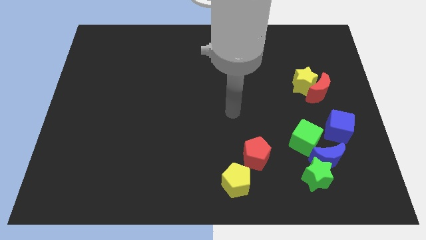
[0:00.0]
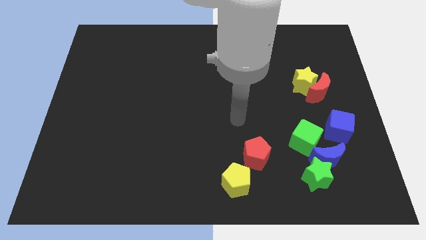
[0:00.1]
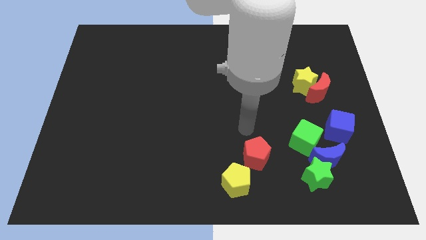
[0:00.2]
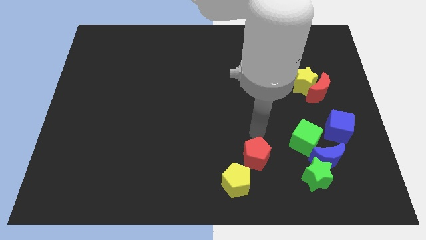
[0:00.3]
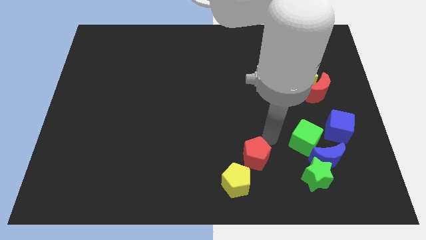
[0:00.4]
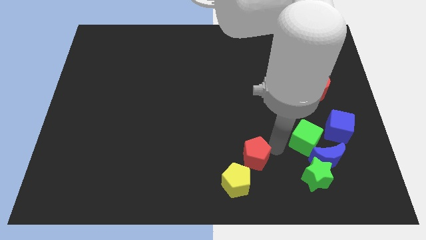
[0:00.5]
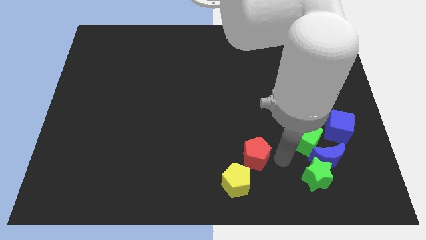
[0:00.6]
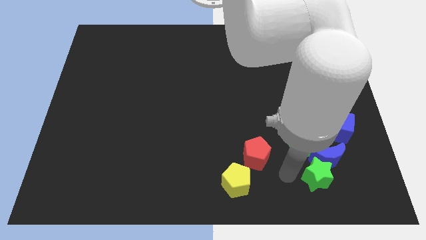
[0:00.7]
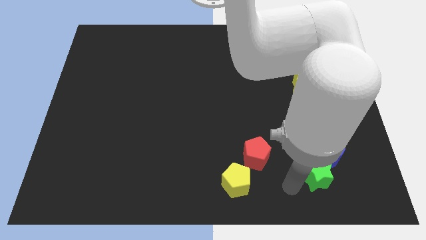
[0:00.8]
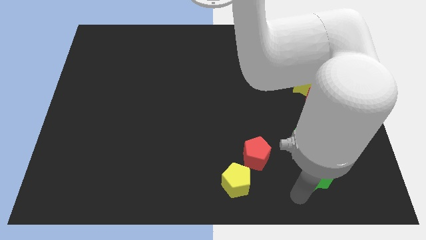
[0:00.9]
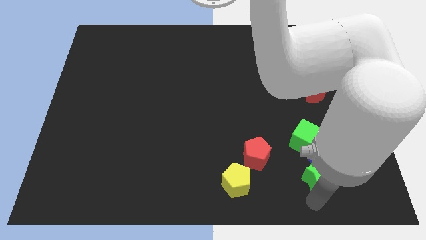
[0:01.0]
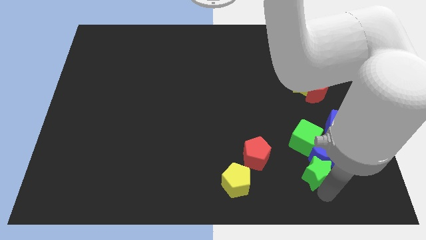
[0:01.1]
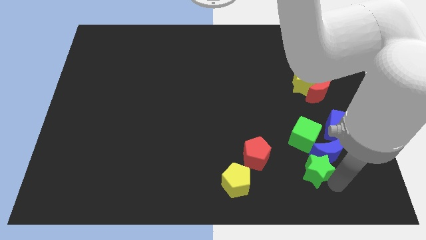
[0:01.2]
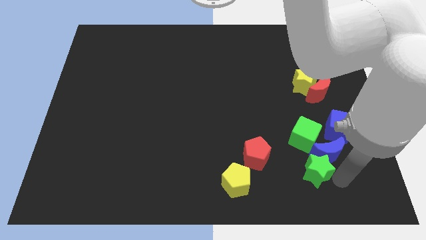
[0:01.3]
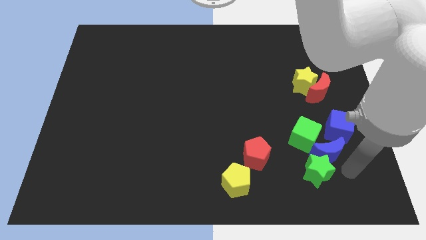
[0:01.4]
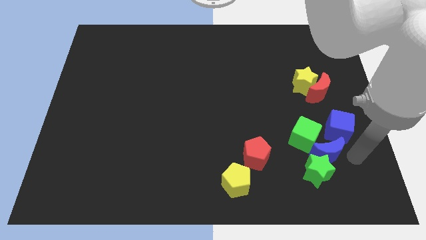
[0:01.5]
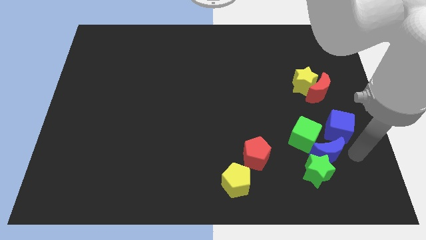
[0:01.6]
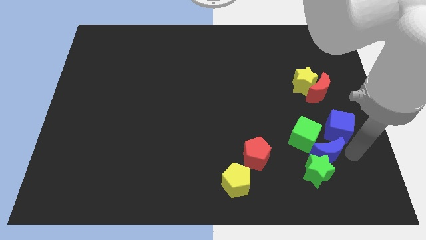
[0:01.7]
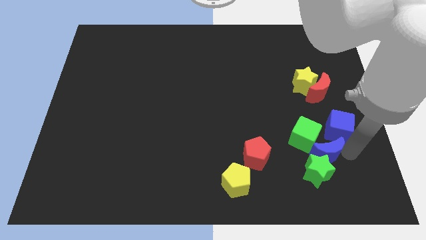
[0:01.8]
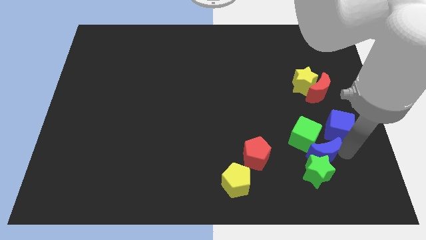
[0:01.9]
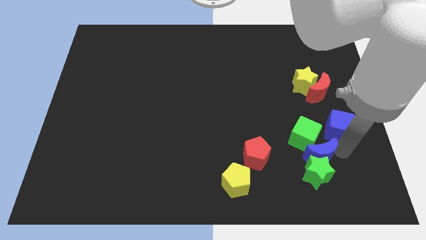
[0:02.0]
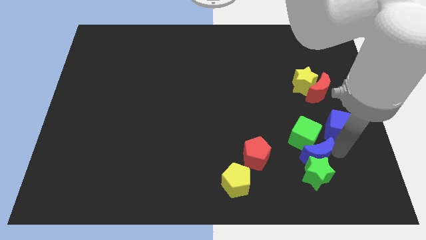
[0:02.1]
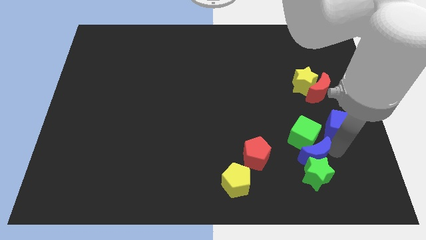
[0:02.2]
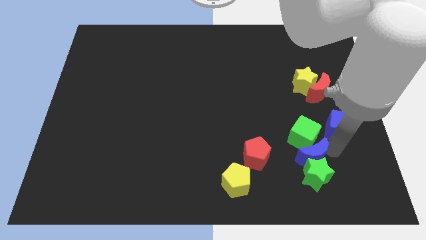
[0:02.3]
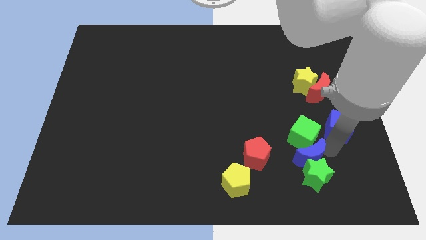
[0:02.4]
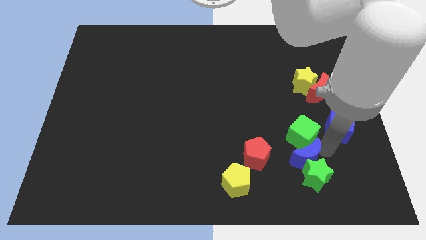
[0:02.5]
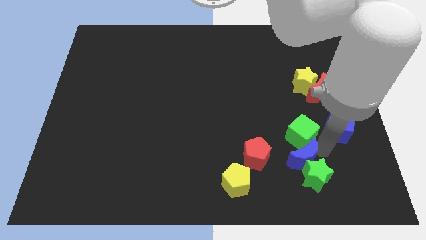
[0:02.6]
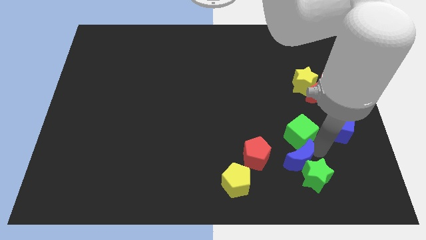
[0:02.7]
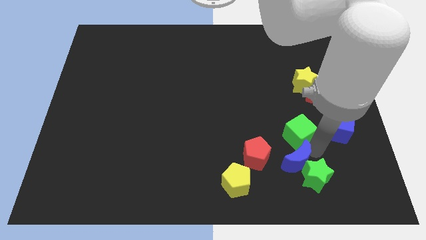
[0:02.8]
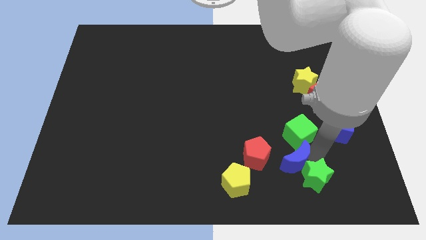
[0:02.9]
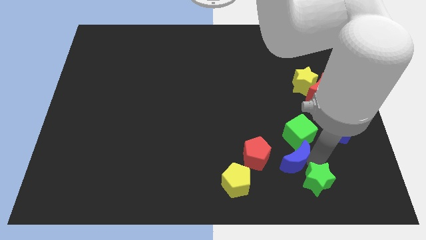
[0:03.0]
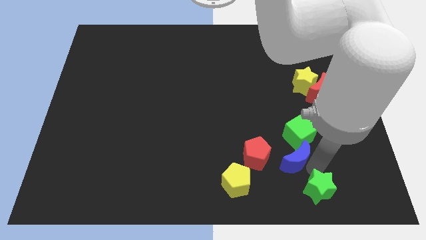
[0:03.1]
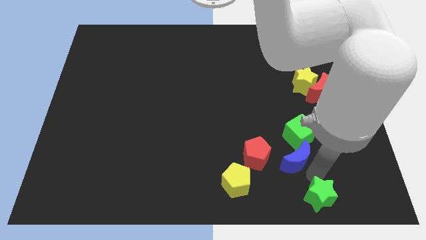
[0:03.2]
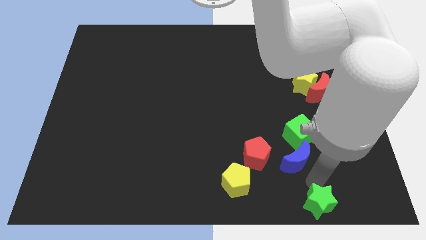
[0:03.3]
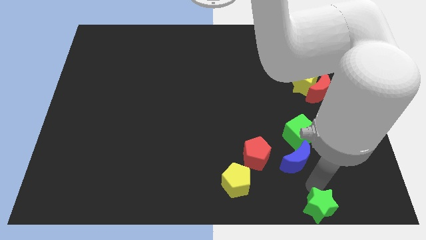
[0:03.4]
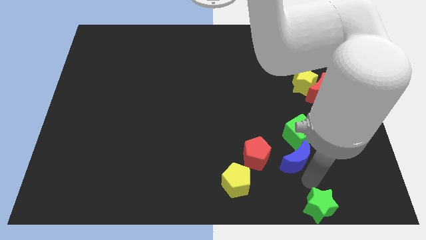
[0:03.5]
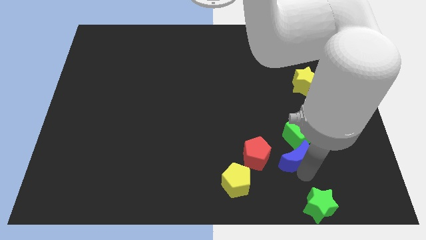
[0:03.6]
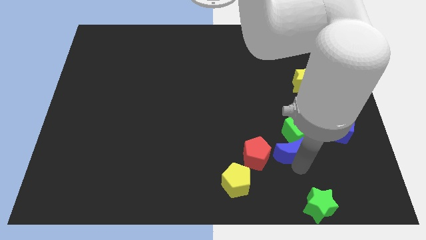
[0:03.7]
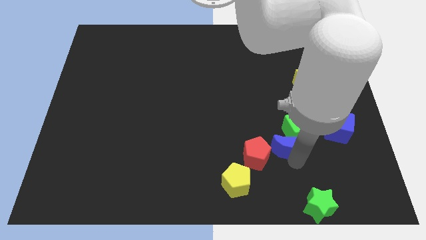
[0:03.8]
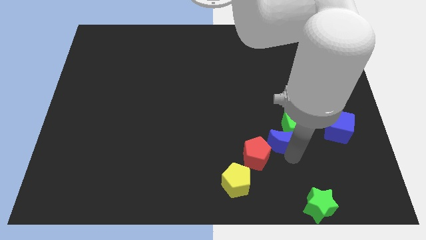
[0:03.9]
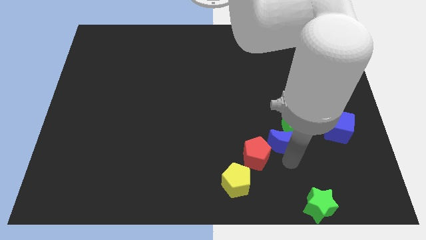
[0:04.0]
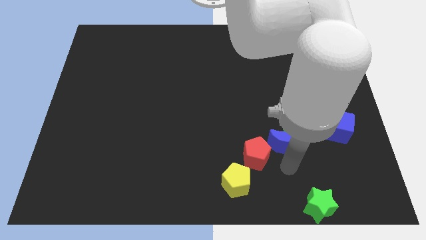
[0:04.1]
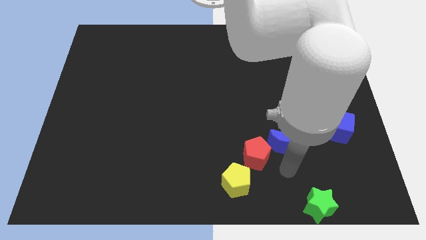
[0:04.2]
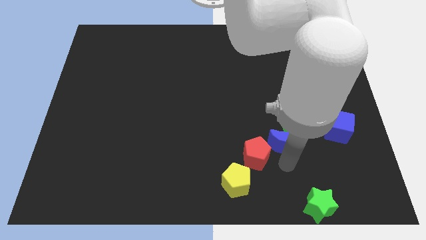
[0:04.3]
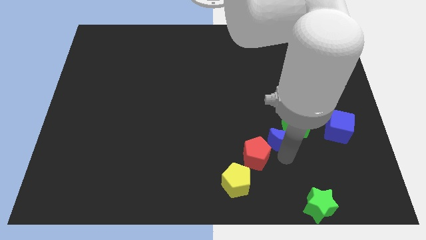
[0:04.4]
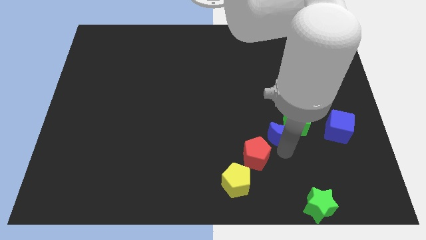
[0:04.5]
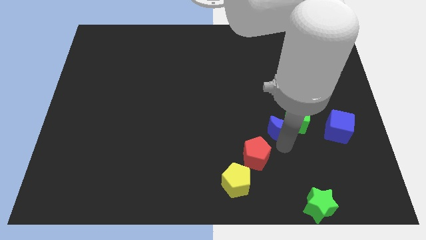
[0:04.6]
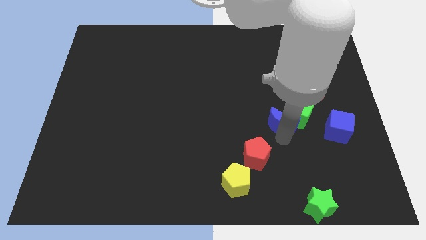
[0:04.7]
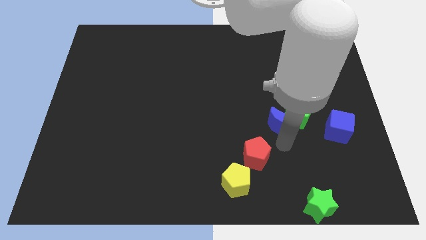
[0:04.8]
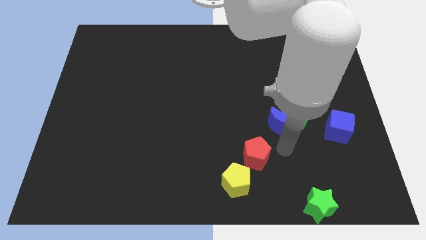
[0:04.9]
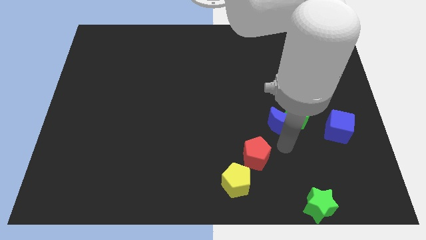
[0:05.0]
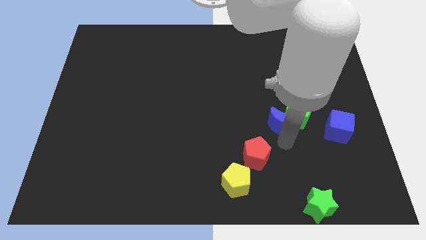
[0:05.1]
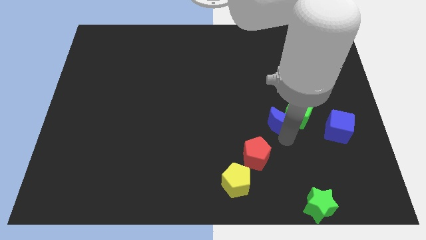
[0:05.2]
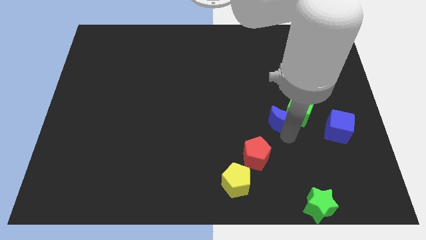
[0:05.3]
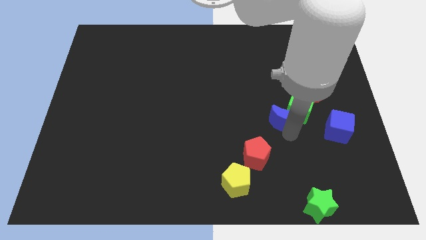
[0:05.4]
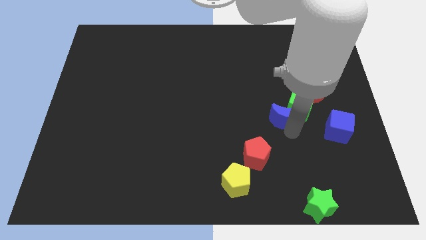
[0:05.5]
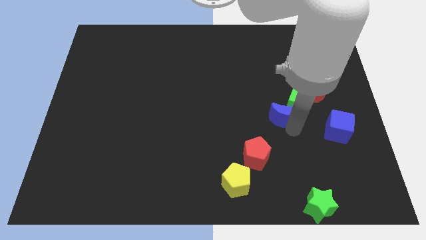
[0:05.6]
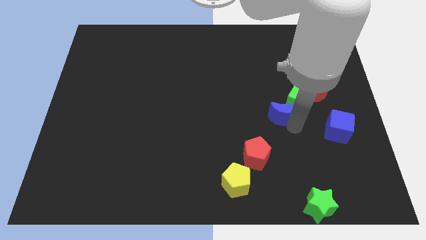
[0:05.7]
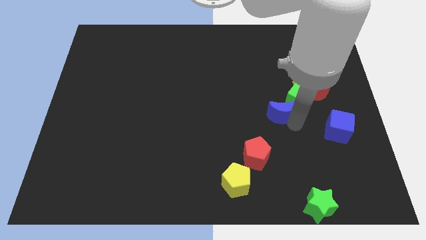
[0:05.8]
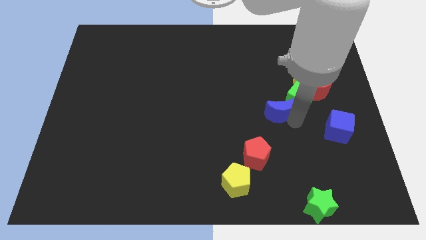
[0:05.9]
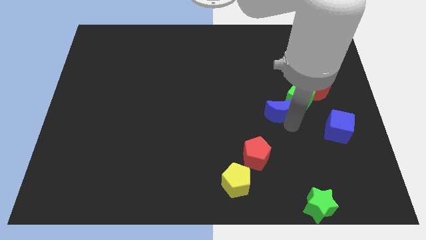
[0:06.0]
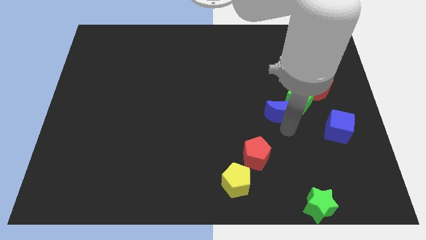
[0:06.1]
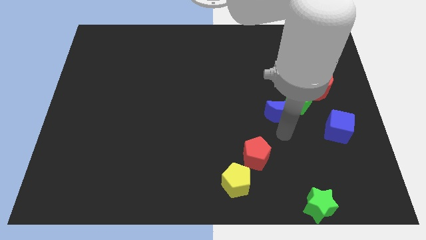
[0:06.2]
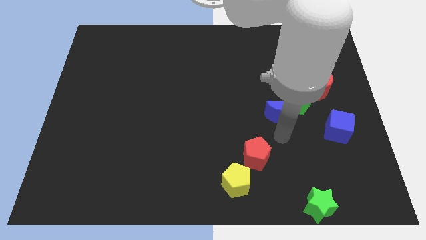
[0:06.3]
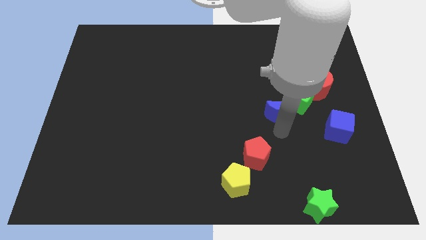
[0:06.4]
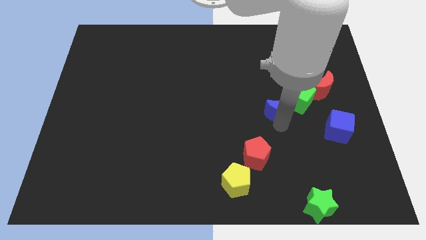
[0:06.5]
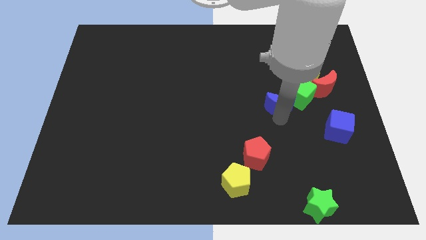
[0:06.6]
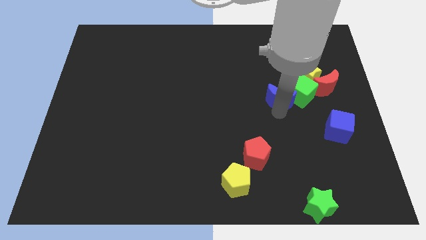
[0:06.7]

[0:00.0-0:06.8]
put the blue moon just left of the red moon

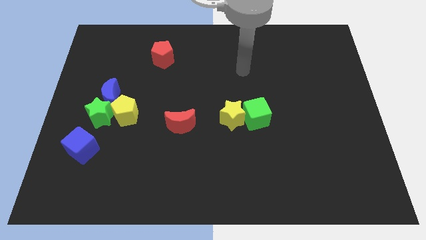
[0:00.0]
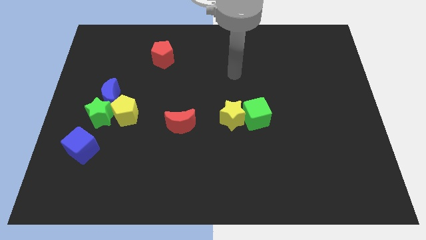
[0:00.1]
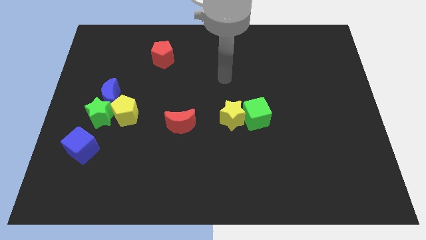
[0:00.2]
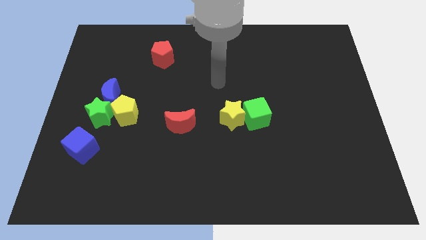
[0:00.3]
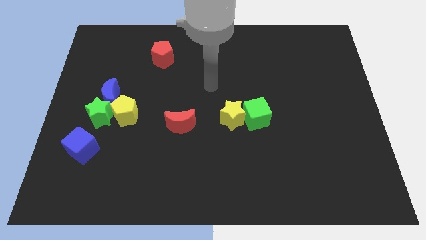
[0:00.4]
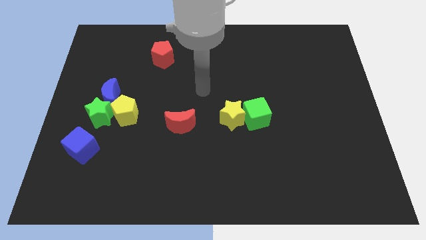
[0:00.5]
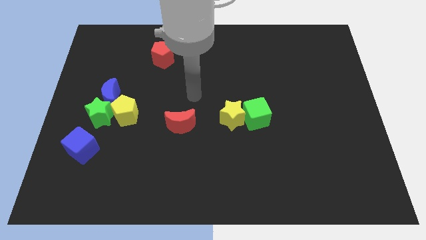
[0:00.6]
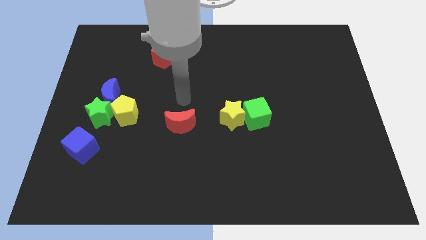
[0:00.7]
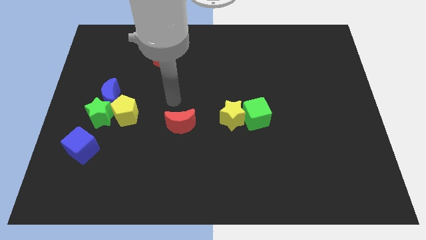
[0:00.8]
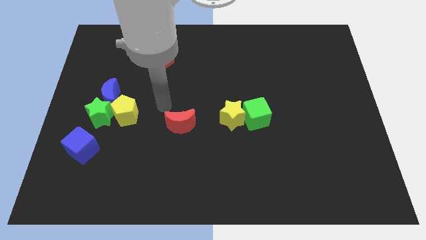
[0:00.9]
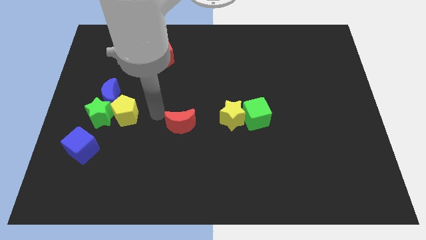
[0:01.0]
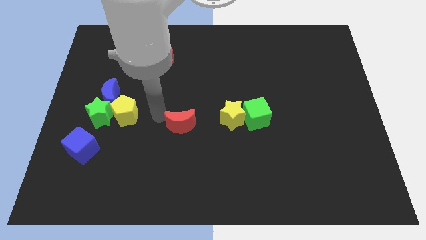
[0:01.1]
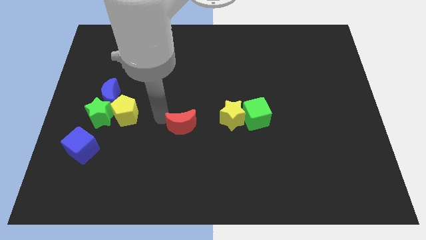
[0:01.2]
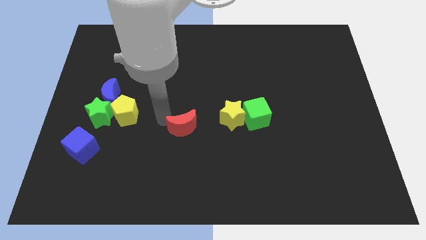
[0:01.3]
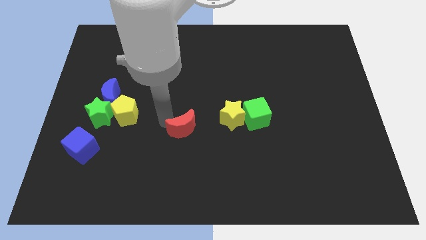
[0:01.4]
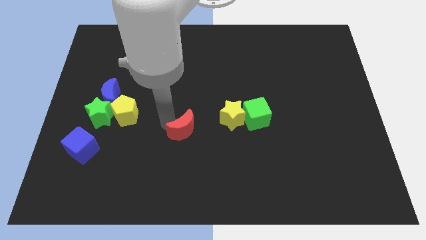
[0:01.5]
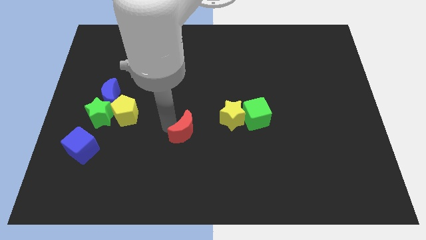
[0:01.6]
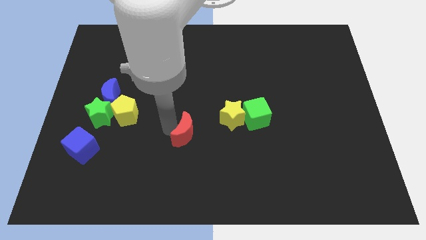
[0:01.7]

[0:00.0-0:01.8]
put the red moon to the bottom left of the yellow star

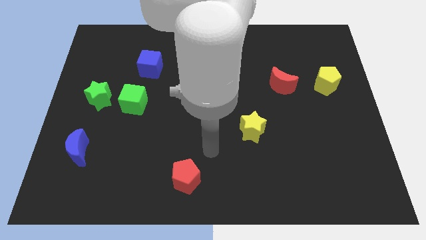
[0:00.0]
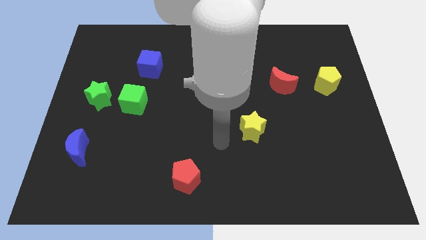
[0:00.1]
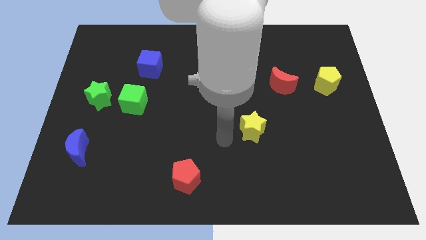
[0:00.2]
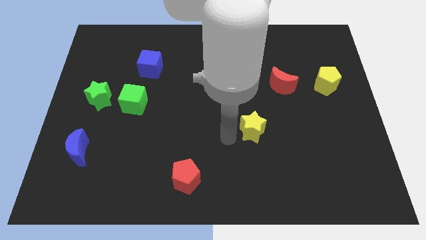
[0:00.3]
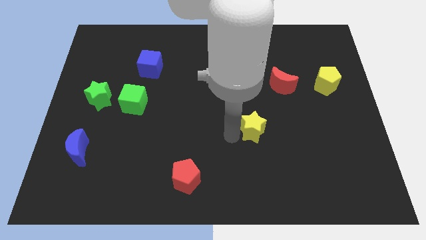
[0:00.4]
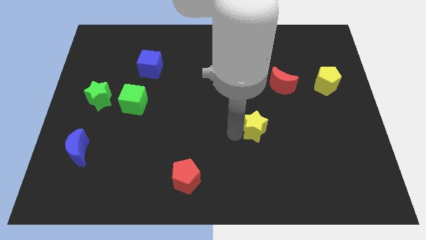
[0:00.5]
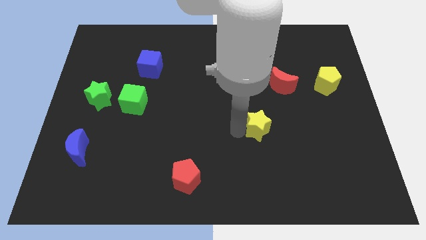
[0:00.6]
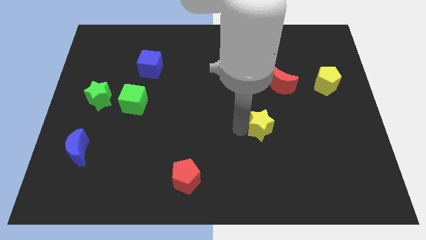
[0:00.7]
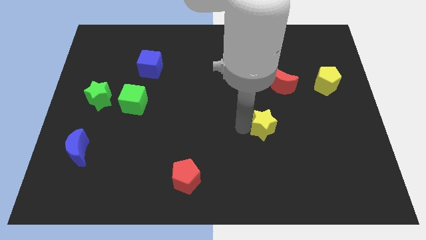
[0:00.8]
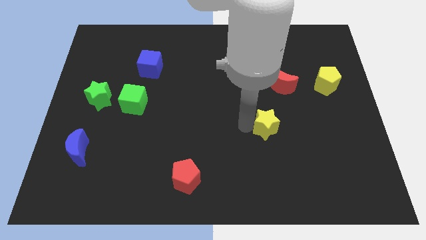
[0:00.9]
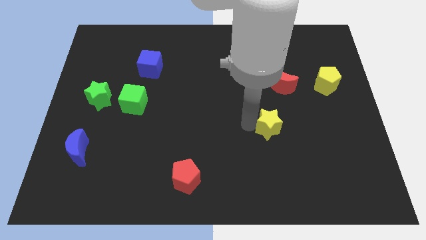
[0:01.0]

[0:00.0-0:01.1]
push the yellow star to the bottom side of the red moon
